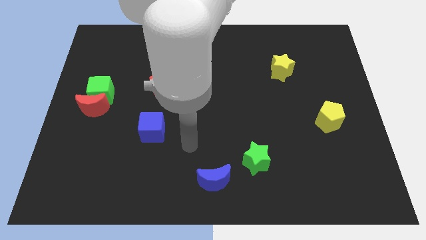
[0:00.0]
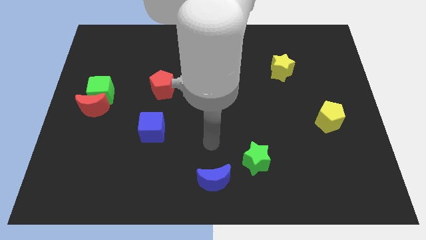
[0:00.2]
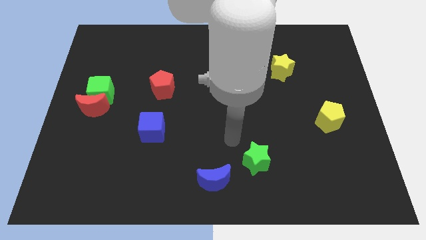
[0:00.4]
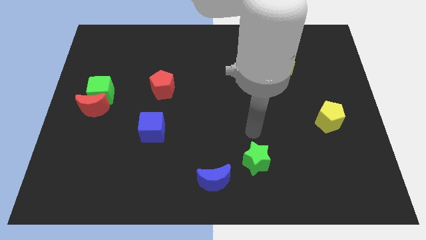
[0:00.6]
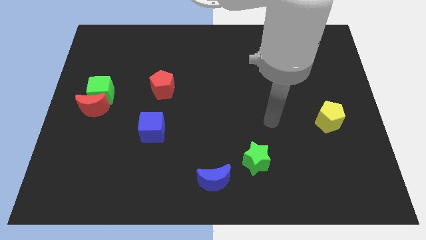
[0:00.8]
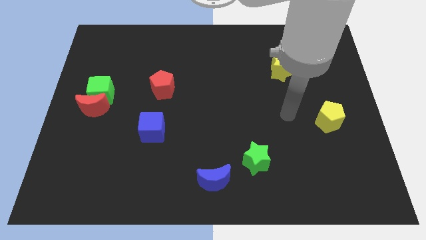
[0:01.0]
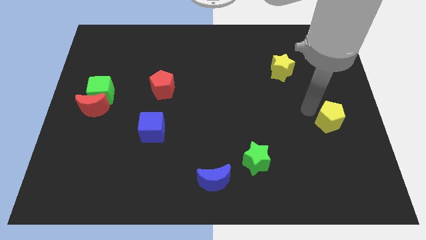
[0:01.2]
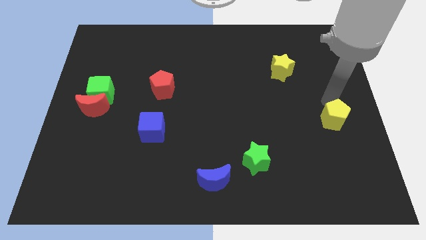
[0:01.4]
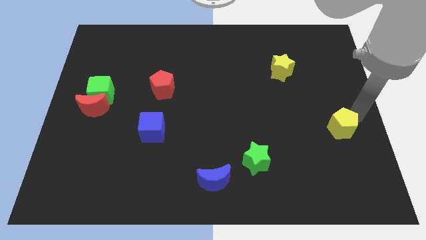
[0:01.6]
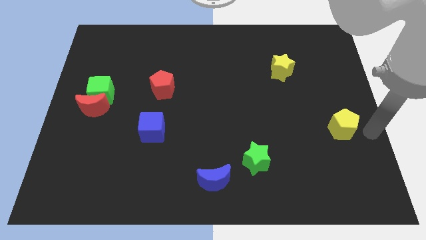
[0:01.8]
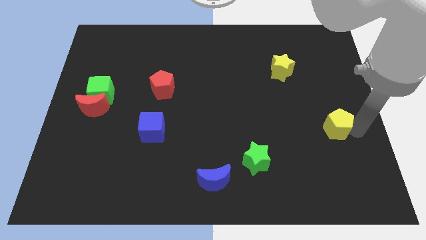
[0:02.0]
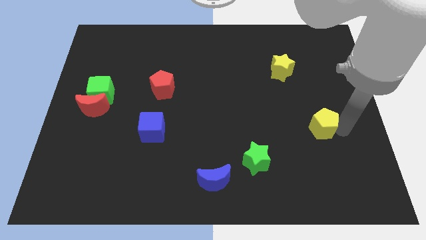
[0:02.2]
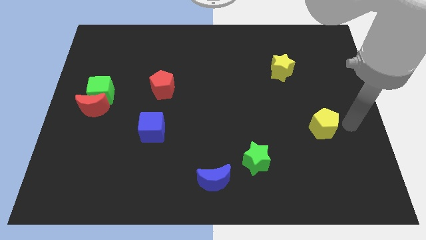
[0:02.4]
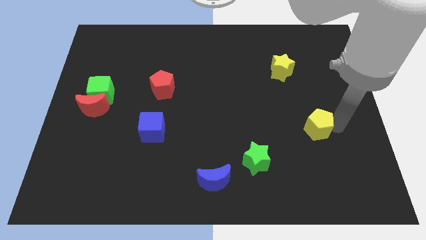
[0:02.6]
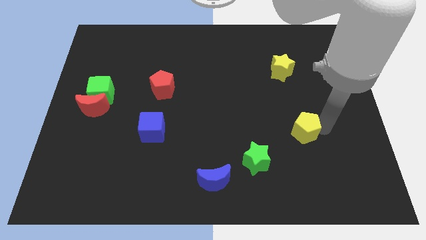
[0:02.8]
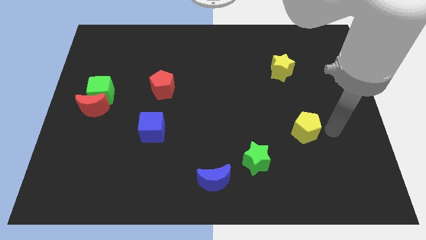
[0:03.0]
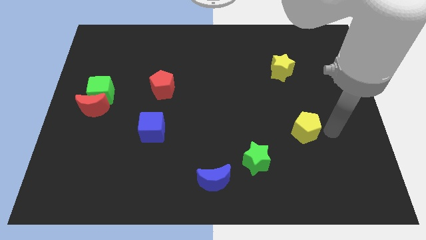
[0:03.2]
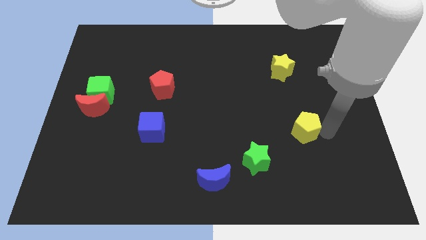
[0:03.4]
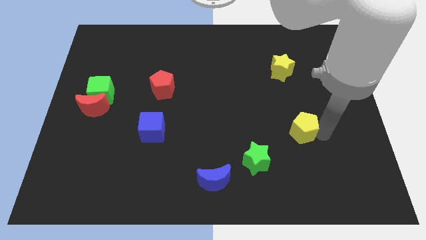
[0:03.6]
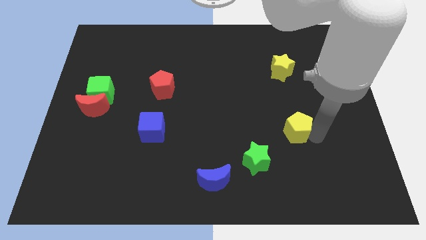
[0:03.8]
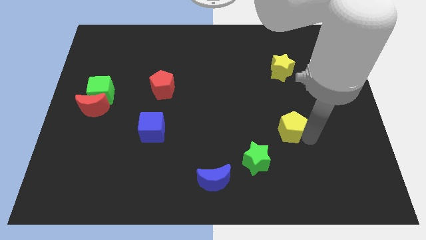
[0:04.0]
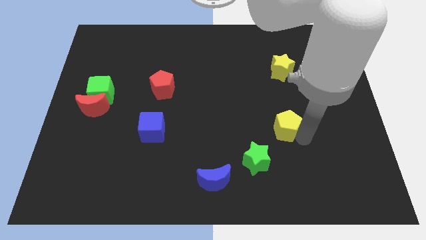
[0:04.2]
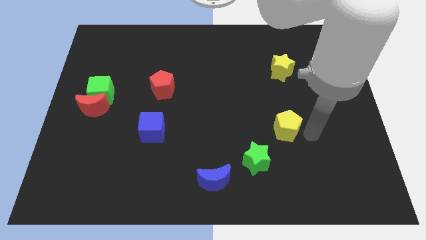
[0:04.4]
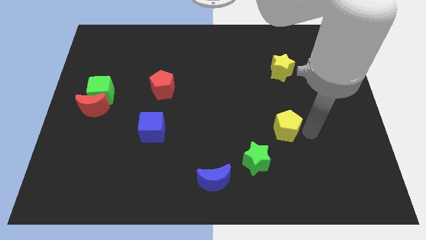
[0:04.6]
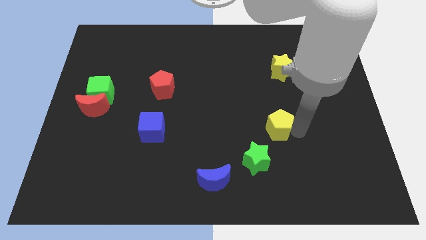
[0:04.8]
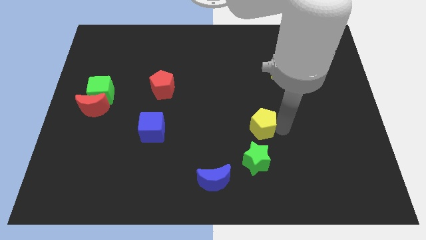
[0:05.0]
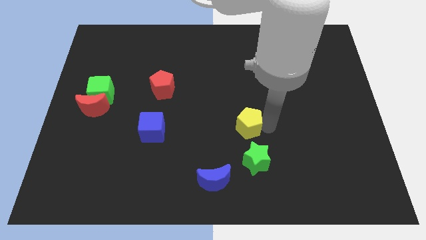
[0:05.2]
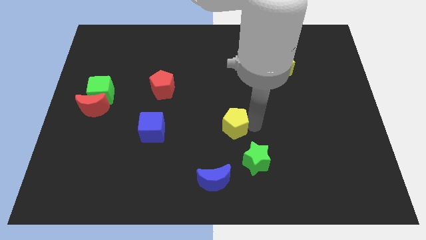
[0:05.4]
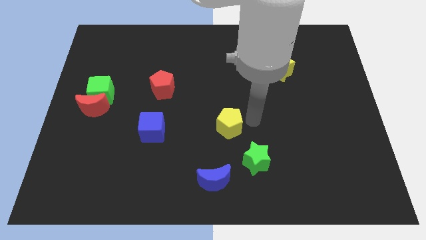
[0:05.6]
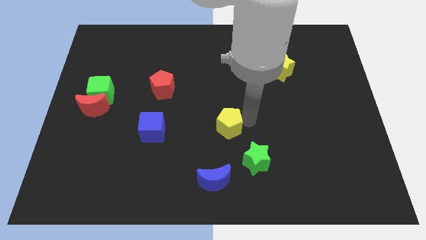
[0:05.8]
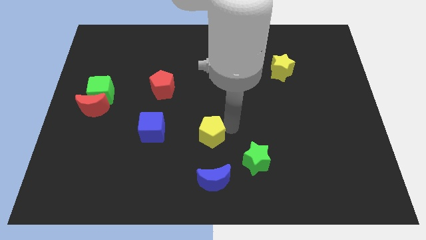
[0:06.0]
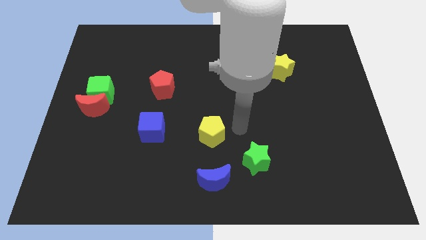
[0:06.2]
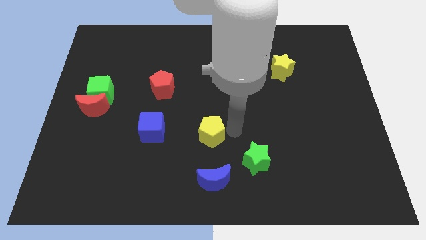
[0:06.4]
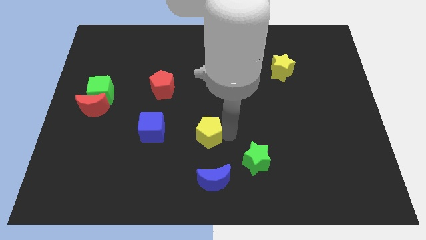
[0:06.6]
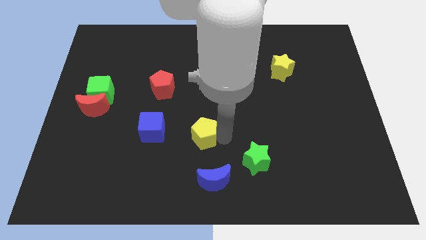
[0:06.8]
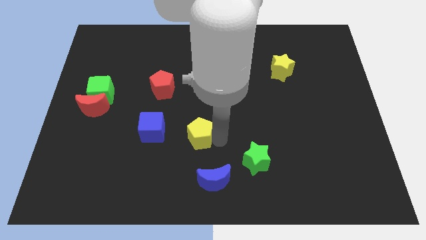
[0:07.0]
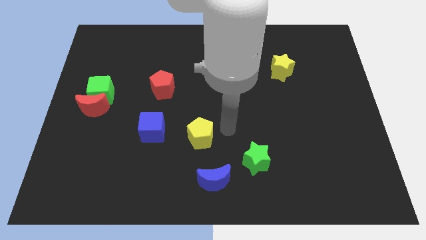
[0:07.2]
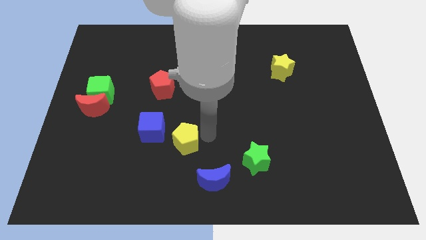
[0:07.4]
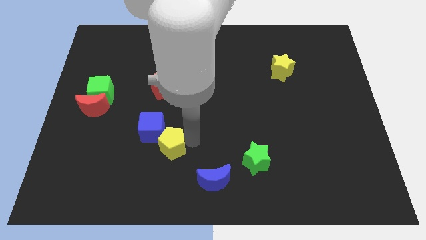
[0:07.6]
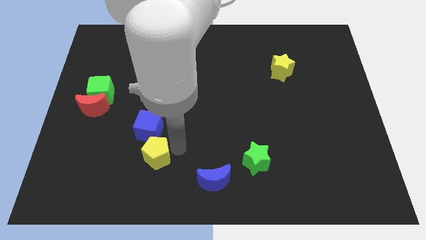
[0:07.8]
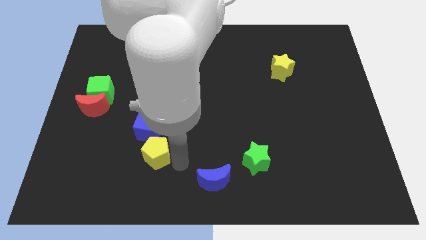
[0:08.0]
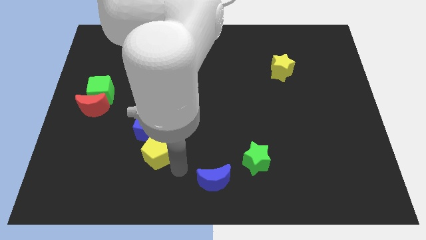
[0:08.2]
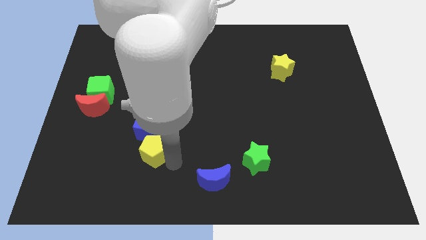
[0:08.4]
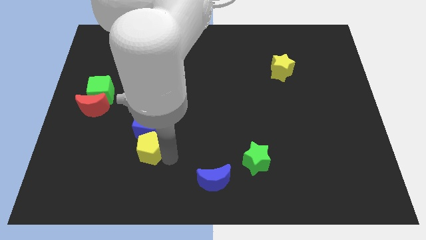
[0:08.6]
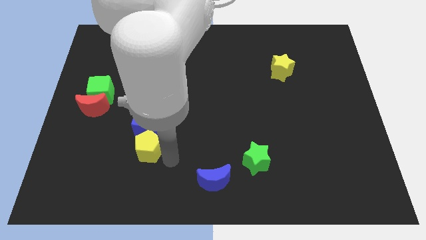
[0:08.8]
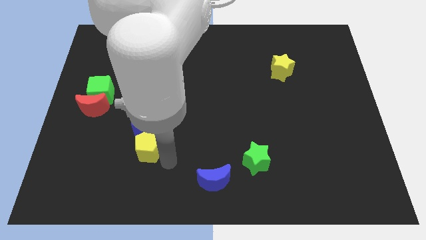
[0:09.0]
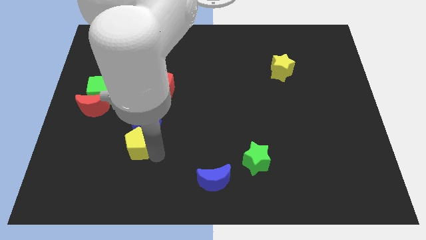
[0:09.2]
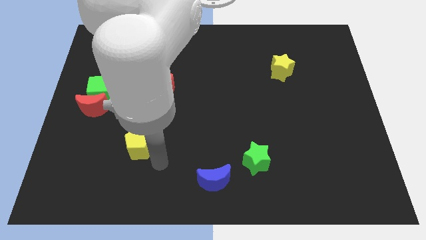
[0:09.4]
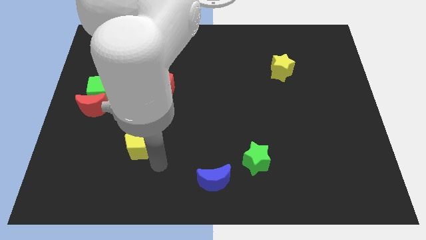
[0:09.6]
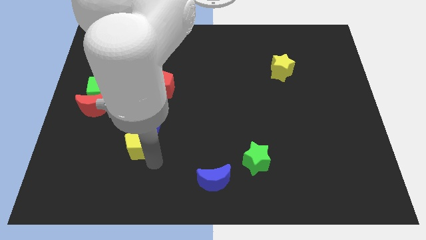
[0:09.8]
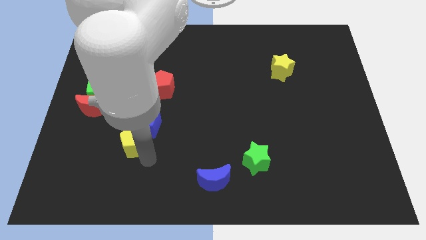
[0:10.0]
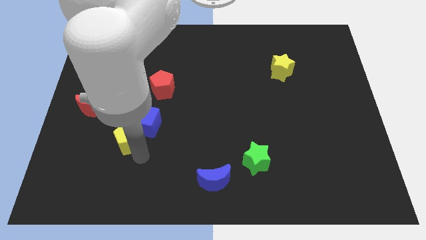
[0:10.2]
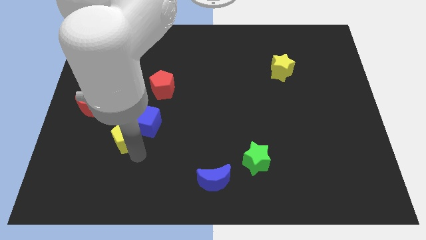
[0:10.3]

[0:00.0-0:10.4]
push the yellow pentagon diagonally down and to the right of the red moon

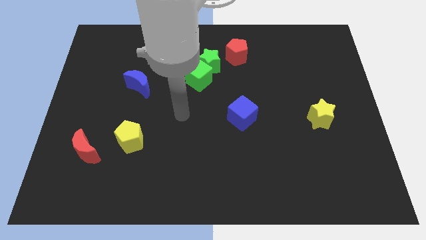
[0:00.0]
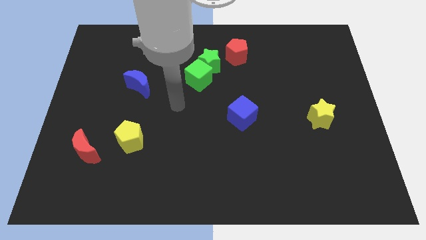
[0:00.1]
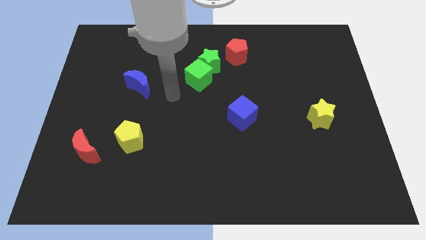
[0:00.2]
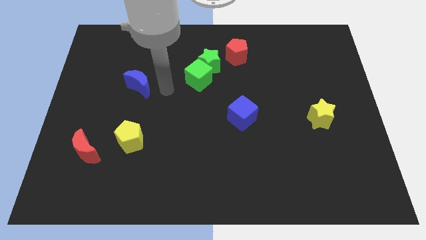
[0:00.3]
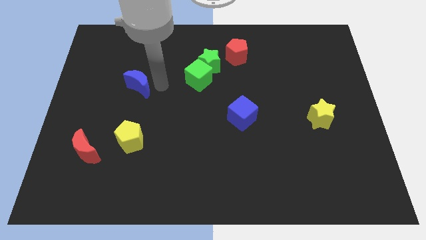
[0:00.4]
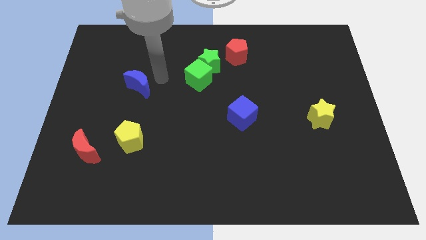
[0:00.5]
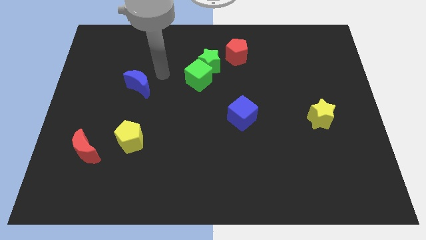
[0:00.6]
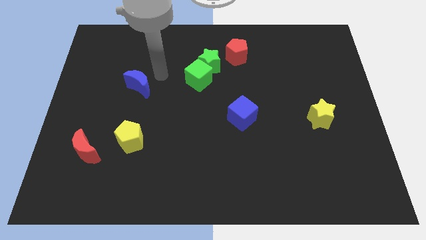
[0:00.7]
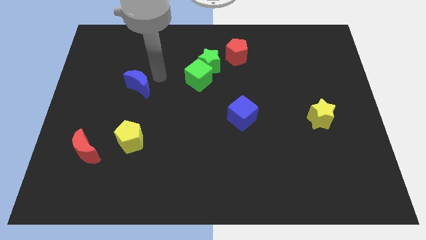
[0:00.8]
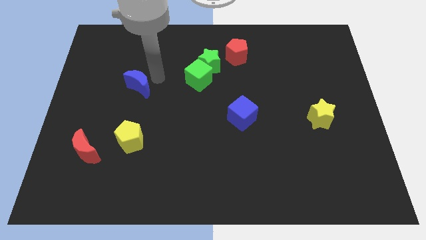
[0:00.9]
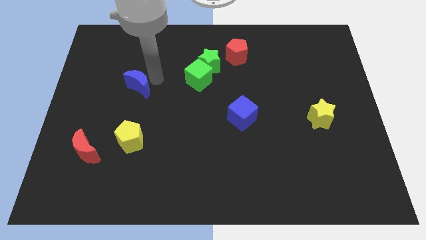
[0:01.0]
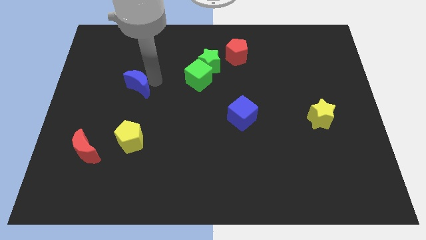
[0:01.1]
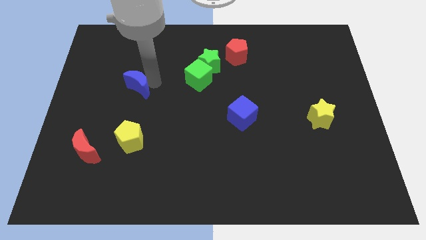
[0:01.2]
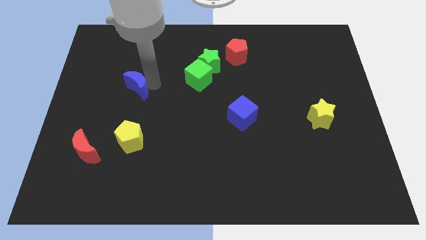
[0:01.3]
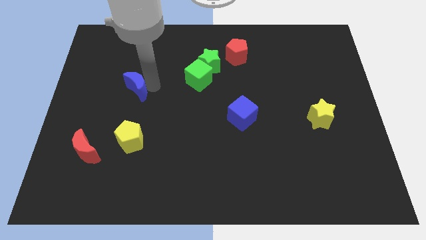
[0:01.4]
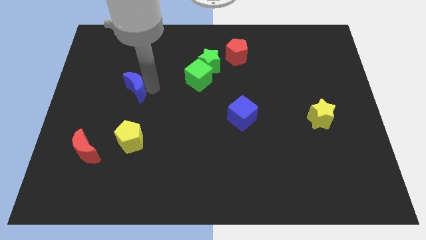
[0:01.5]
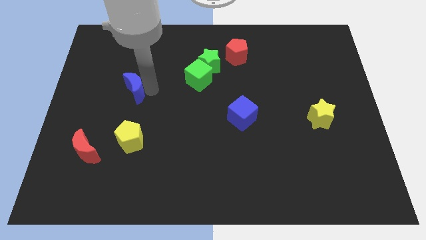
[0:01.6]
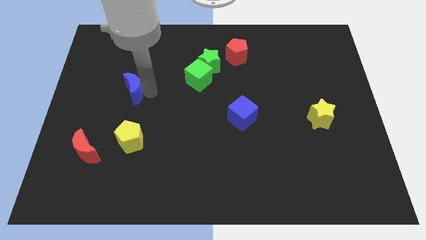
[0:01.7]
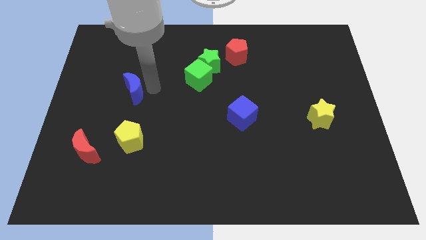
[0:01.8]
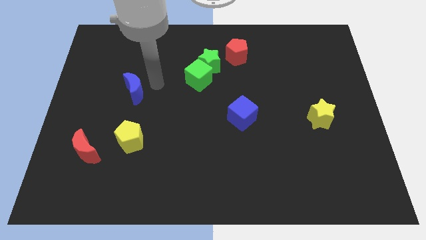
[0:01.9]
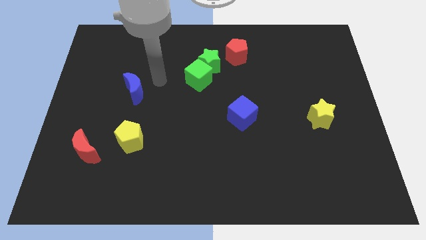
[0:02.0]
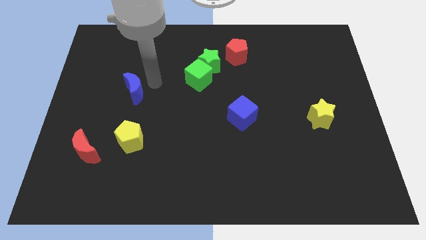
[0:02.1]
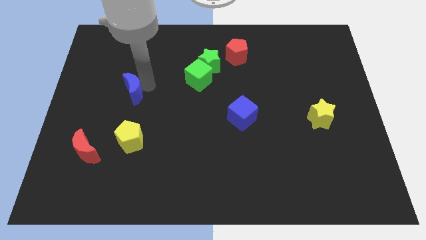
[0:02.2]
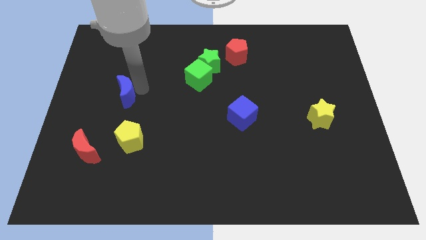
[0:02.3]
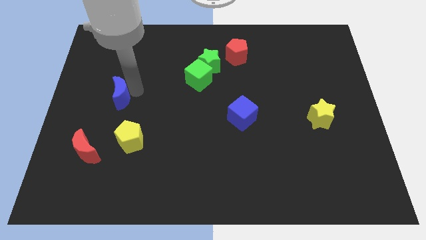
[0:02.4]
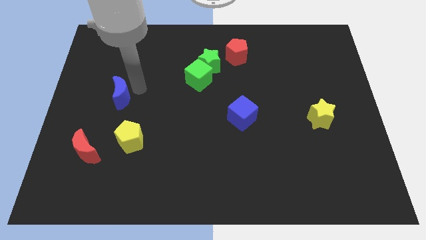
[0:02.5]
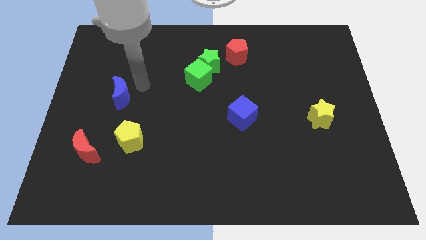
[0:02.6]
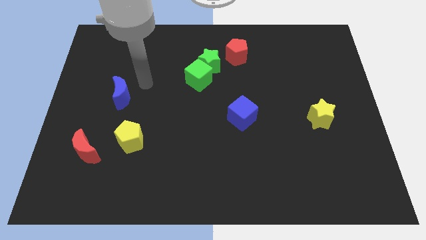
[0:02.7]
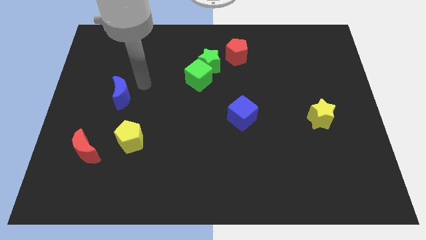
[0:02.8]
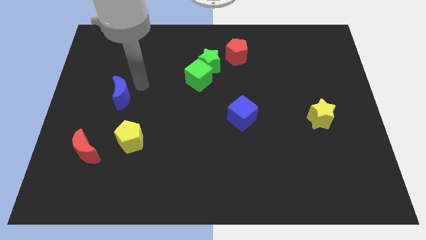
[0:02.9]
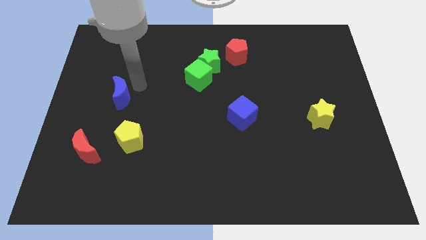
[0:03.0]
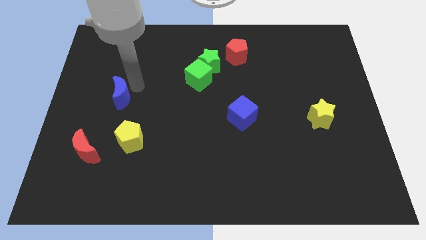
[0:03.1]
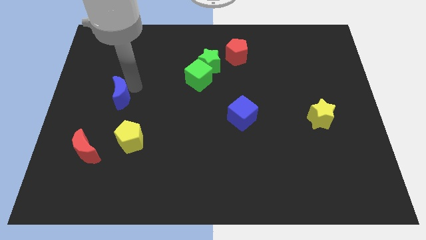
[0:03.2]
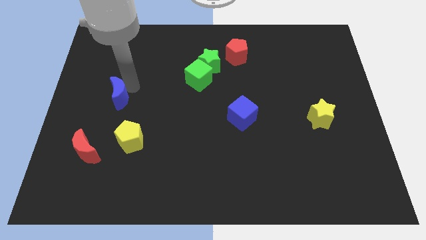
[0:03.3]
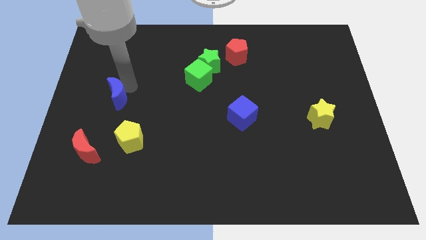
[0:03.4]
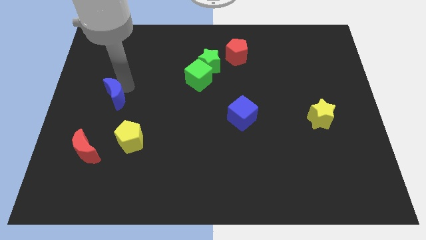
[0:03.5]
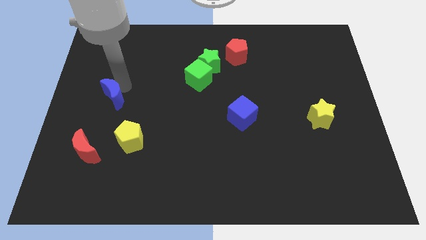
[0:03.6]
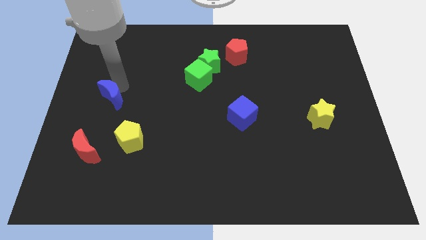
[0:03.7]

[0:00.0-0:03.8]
push the blue moon to the top of the red moon
